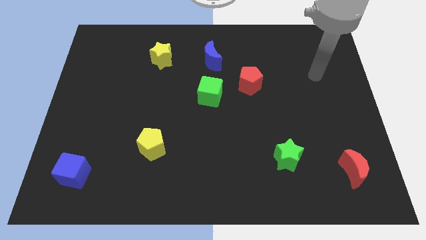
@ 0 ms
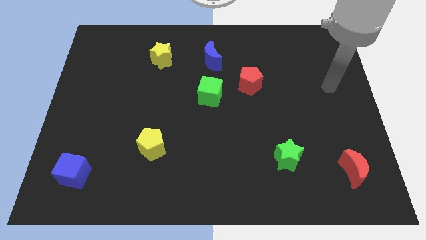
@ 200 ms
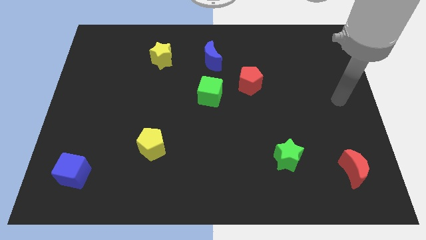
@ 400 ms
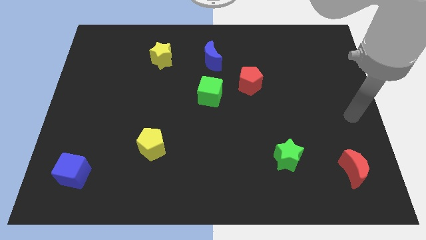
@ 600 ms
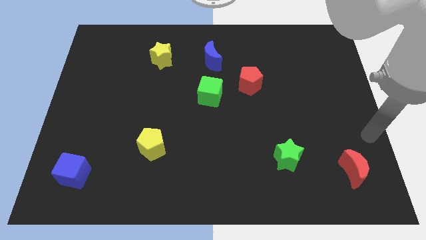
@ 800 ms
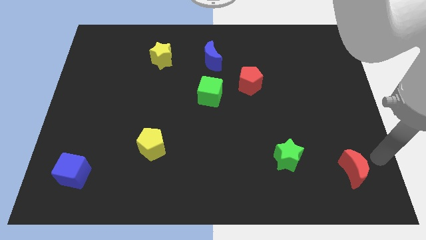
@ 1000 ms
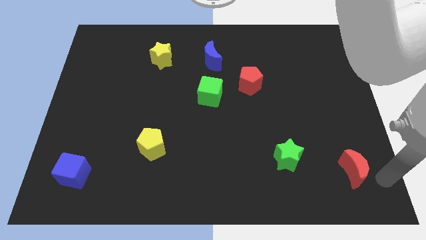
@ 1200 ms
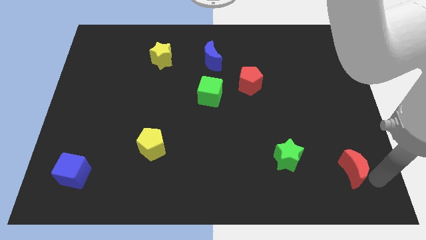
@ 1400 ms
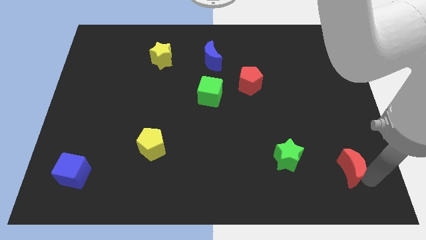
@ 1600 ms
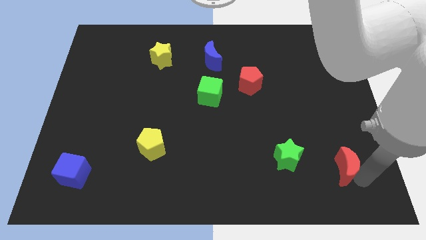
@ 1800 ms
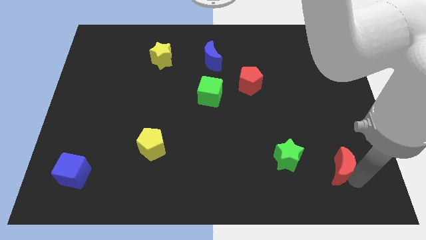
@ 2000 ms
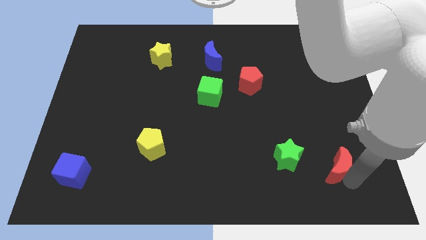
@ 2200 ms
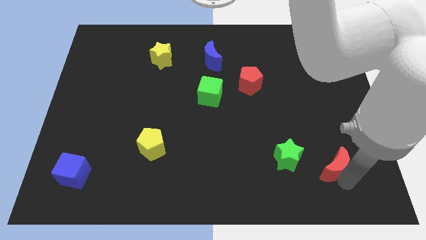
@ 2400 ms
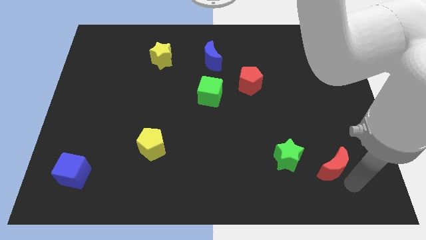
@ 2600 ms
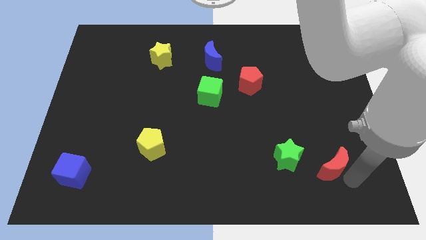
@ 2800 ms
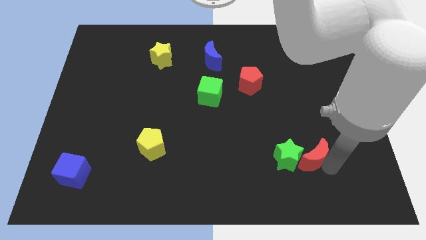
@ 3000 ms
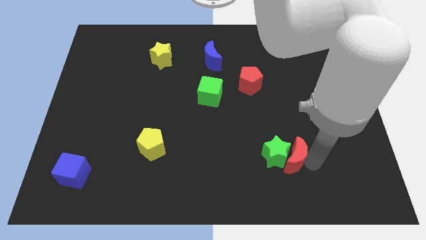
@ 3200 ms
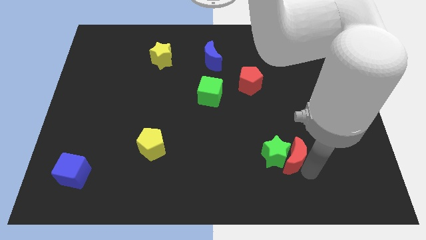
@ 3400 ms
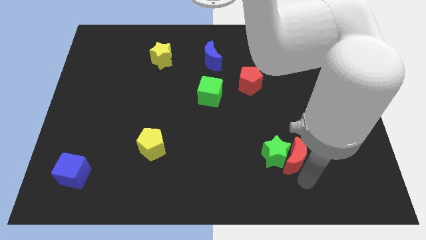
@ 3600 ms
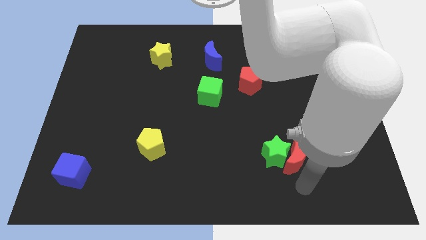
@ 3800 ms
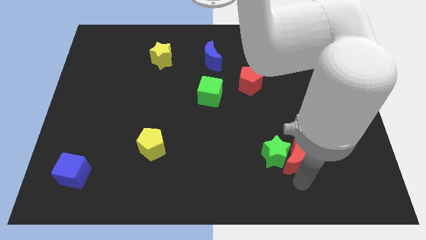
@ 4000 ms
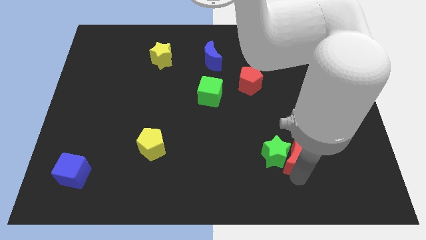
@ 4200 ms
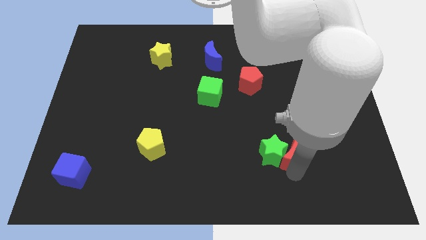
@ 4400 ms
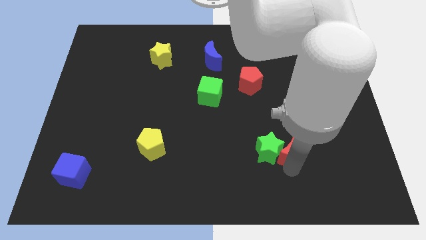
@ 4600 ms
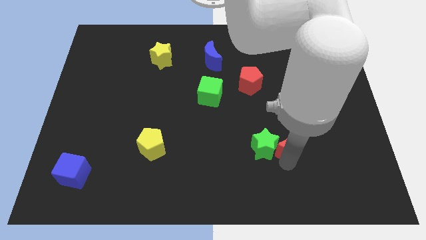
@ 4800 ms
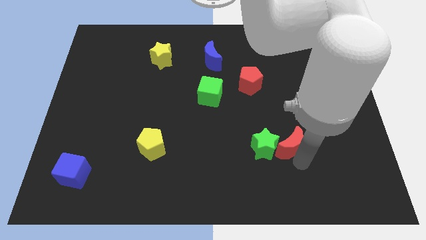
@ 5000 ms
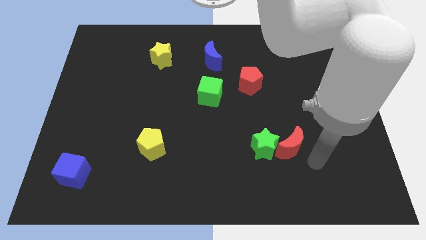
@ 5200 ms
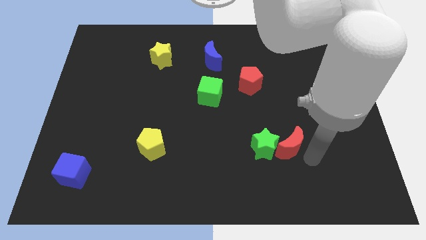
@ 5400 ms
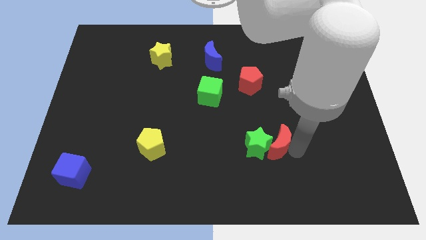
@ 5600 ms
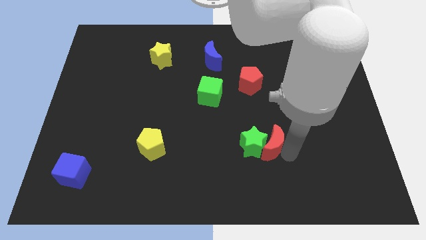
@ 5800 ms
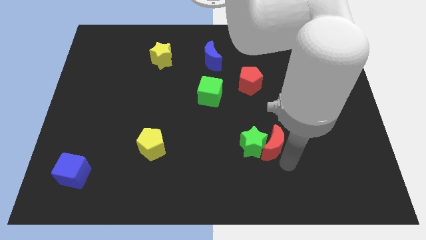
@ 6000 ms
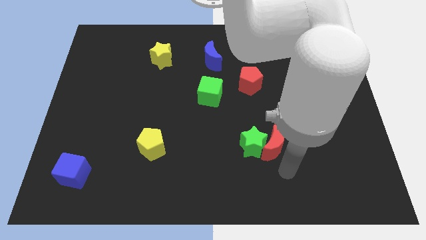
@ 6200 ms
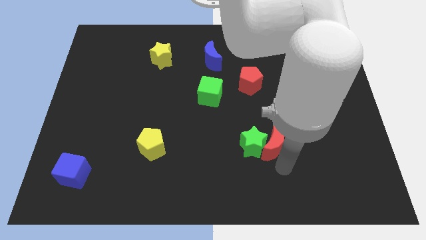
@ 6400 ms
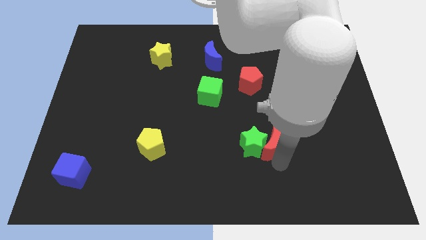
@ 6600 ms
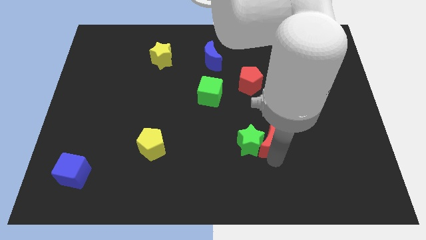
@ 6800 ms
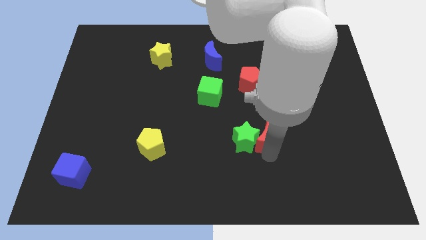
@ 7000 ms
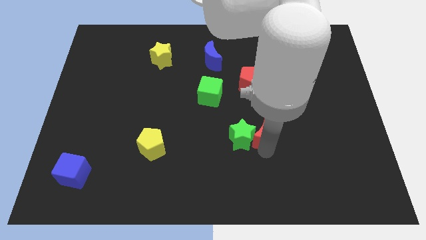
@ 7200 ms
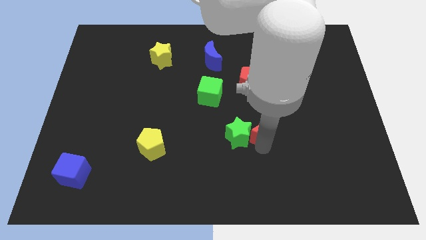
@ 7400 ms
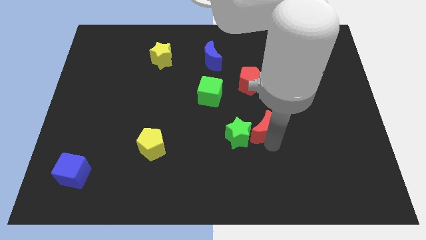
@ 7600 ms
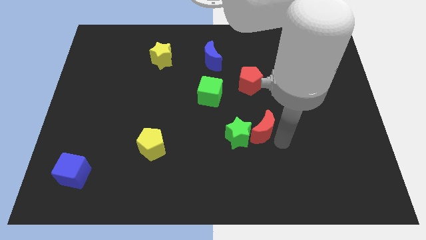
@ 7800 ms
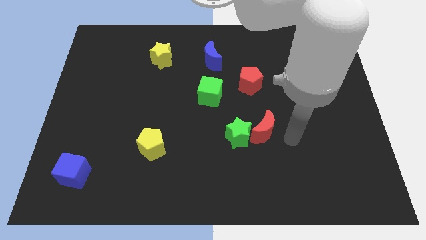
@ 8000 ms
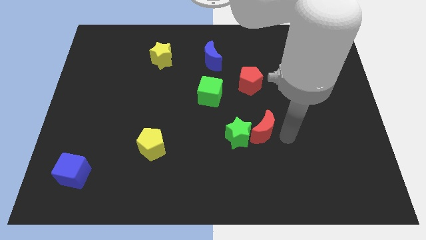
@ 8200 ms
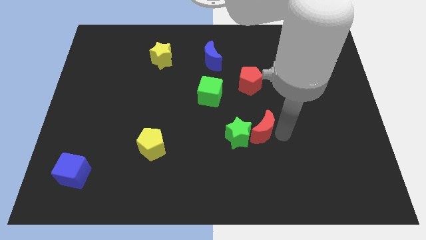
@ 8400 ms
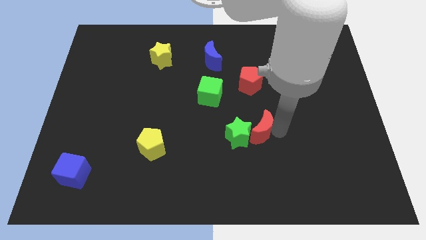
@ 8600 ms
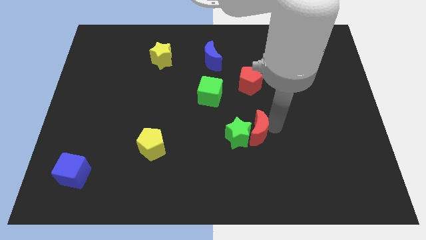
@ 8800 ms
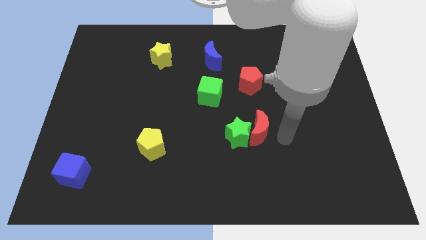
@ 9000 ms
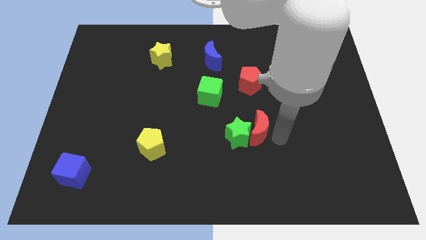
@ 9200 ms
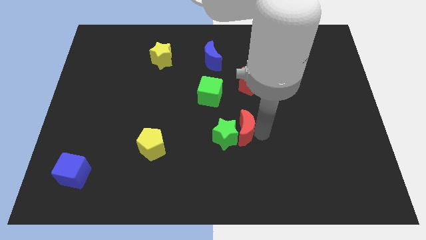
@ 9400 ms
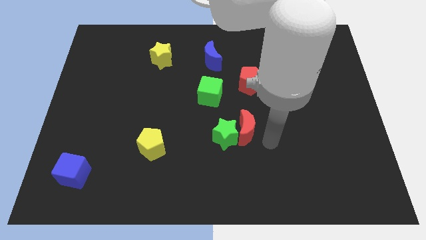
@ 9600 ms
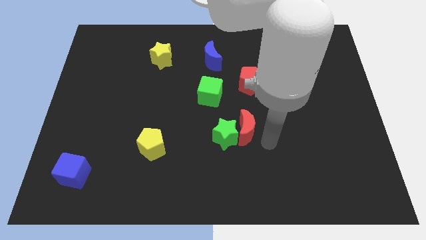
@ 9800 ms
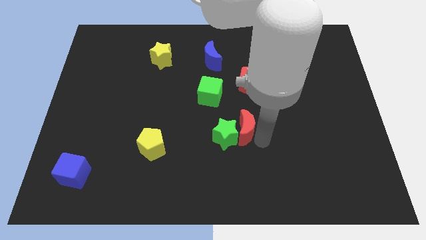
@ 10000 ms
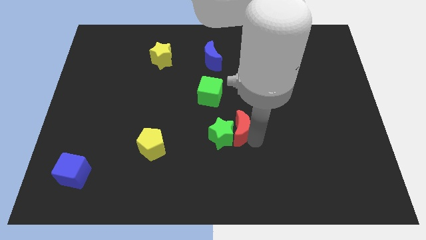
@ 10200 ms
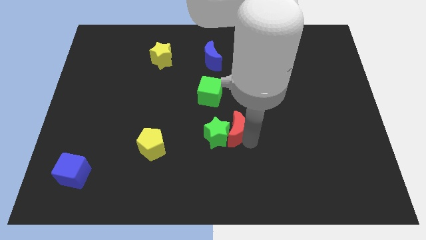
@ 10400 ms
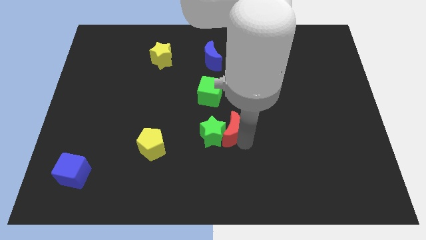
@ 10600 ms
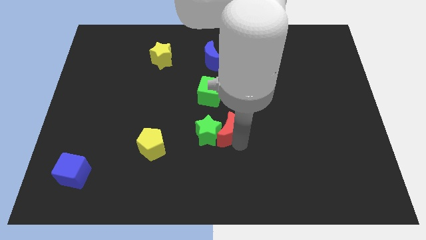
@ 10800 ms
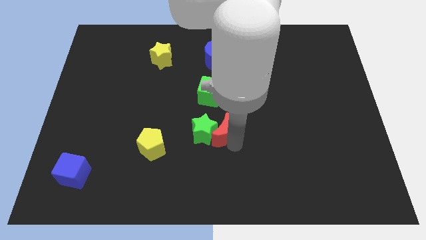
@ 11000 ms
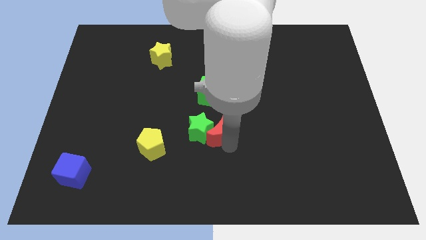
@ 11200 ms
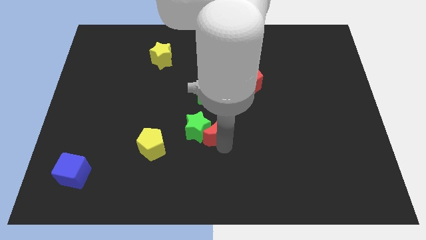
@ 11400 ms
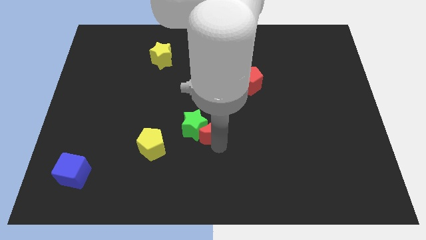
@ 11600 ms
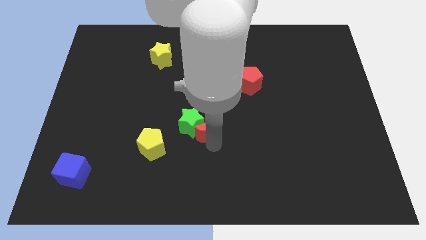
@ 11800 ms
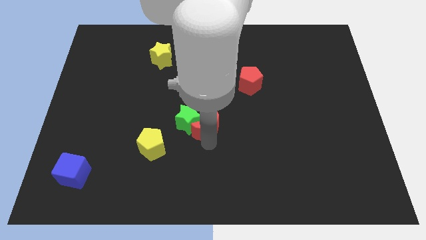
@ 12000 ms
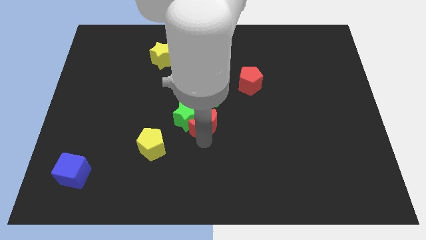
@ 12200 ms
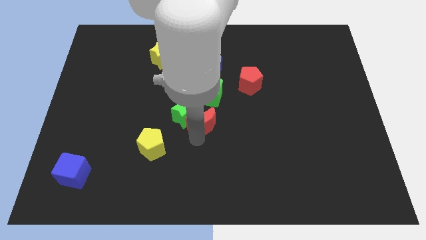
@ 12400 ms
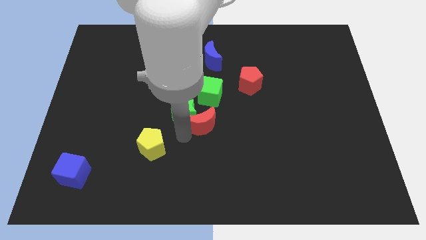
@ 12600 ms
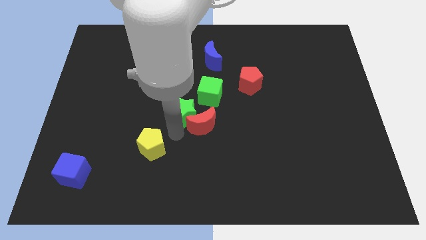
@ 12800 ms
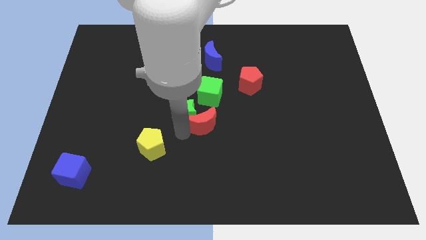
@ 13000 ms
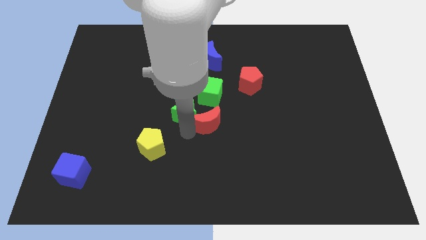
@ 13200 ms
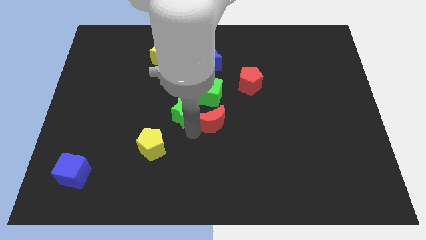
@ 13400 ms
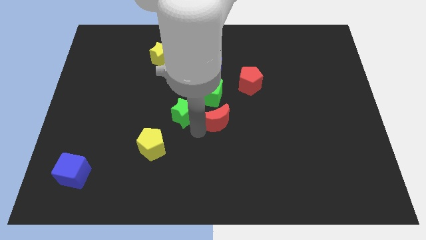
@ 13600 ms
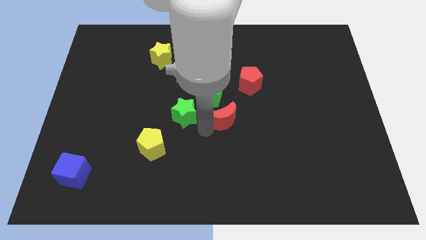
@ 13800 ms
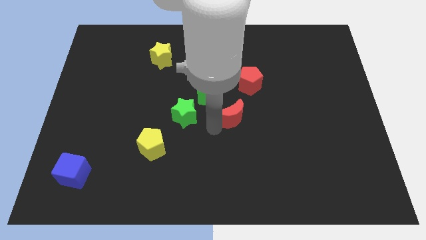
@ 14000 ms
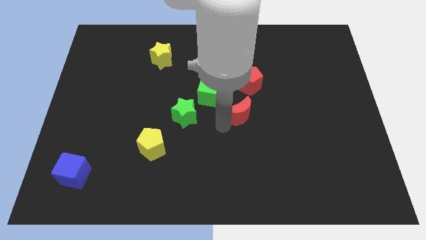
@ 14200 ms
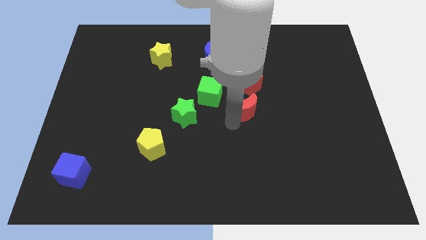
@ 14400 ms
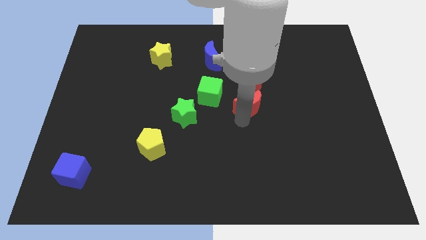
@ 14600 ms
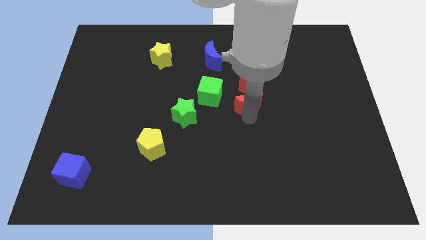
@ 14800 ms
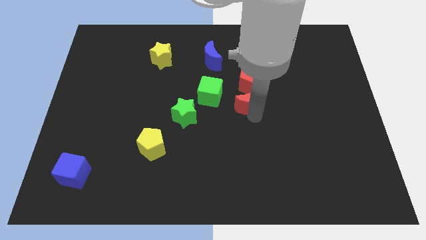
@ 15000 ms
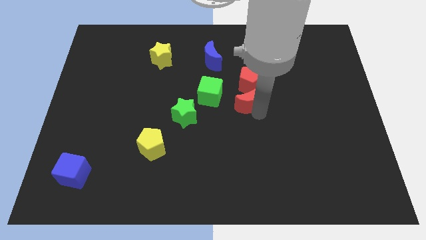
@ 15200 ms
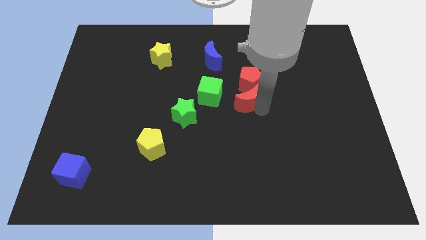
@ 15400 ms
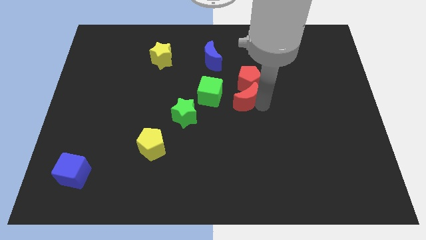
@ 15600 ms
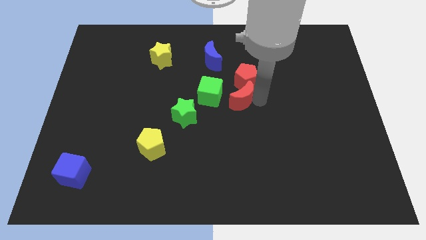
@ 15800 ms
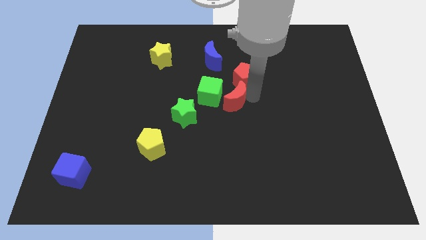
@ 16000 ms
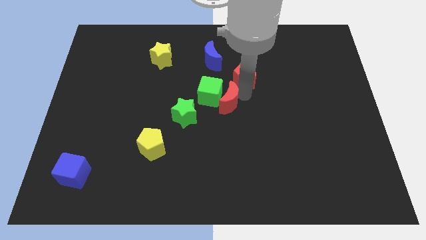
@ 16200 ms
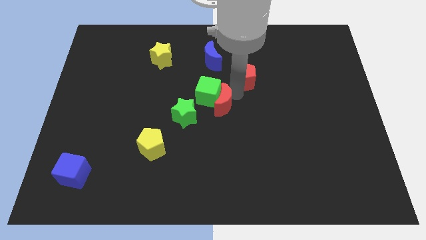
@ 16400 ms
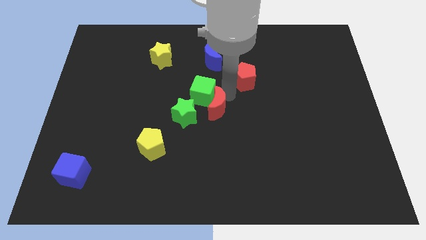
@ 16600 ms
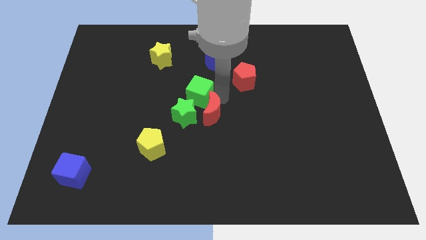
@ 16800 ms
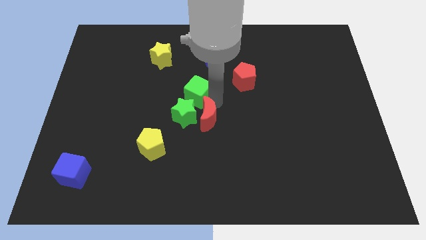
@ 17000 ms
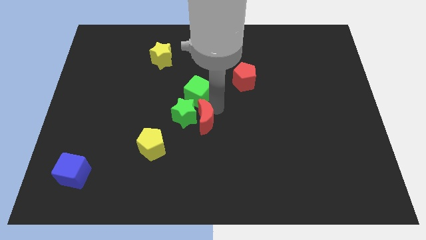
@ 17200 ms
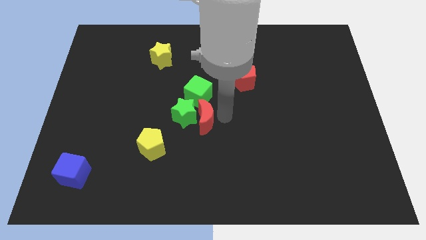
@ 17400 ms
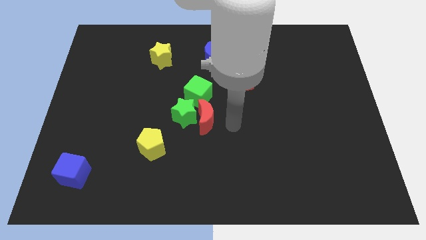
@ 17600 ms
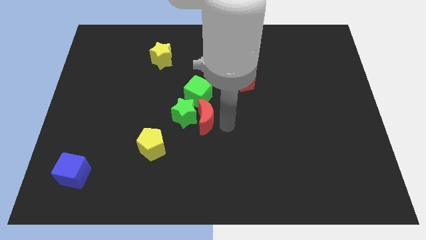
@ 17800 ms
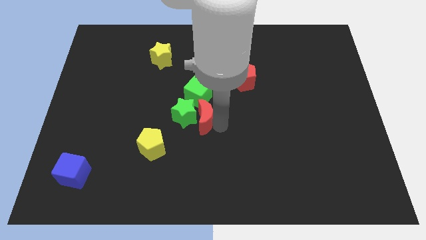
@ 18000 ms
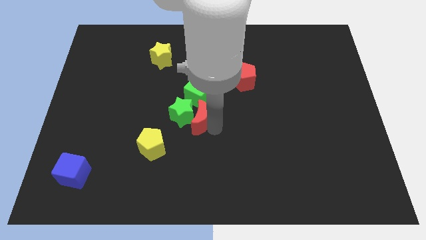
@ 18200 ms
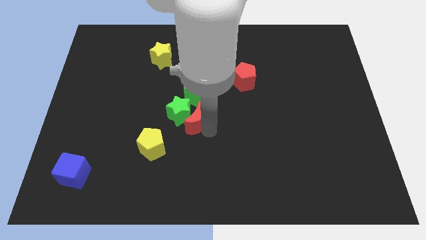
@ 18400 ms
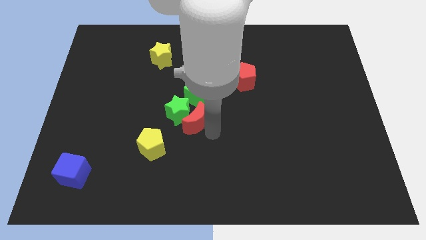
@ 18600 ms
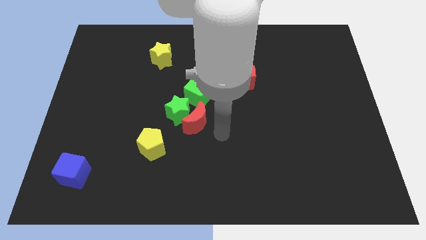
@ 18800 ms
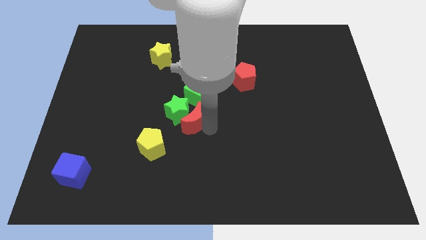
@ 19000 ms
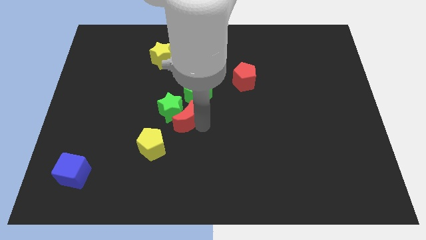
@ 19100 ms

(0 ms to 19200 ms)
push the red moon diagonally down and to the left of the green cube
